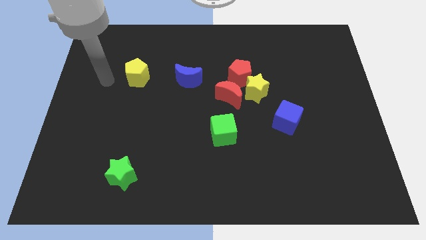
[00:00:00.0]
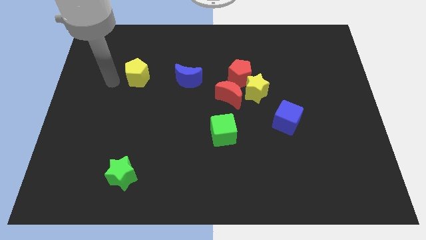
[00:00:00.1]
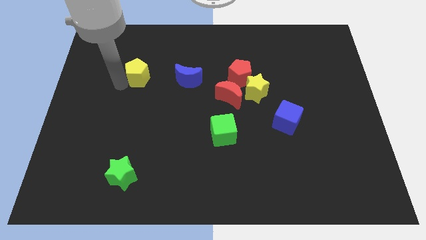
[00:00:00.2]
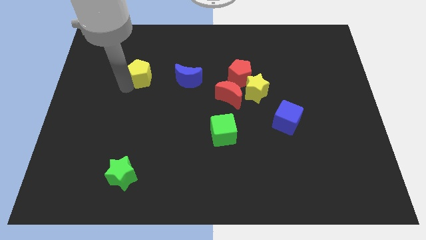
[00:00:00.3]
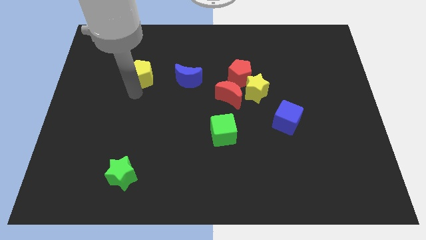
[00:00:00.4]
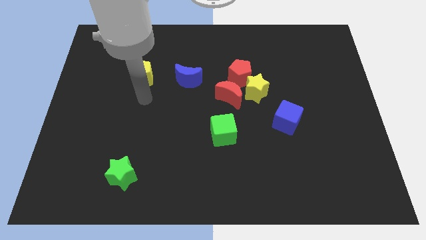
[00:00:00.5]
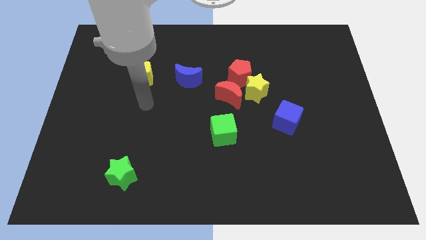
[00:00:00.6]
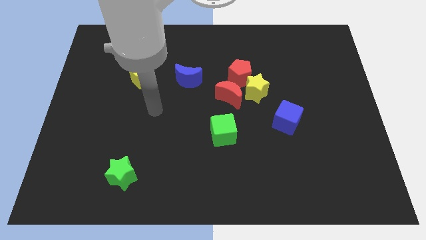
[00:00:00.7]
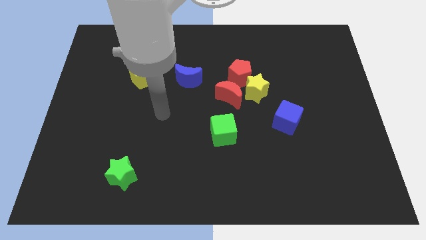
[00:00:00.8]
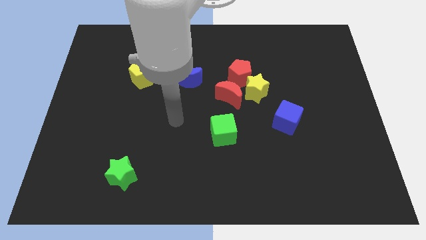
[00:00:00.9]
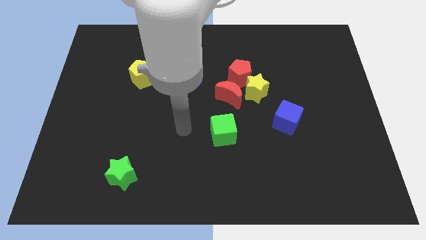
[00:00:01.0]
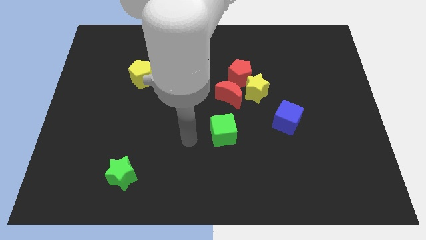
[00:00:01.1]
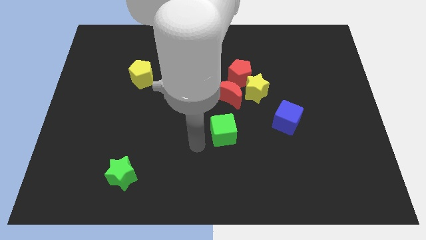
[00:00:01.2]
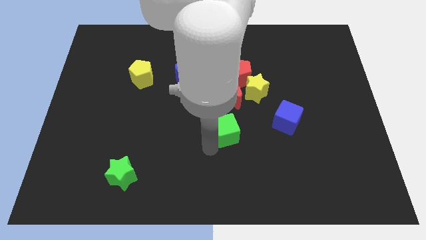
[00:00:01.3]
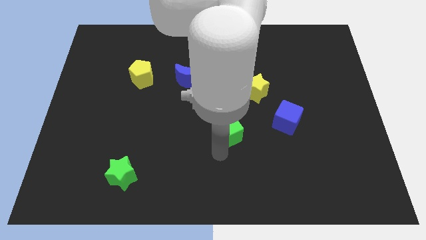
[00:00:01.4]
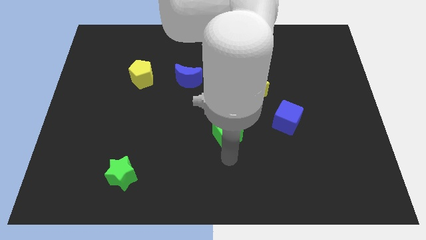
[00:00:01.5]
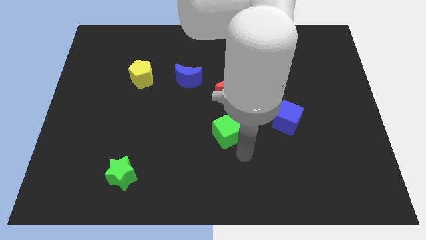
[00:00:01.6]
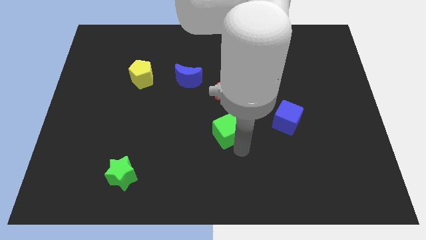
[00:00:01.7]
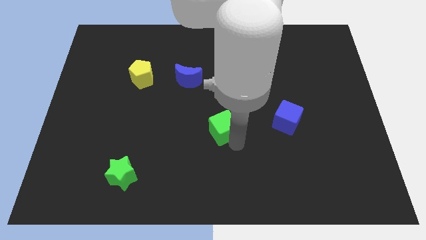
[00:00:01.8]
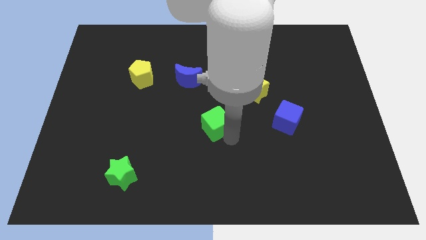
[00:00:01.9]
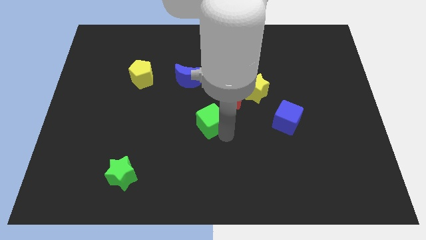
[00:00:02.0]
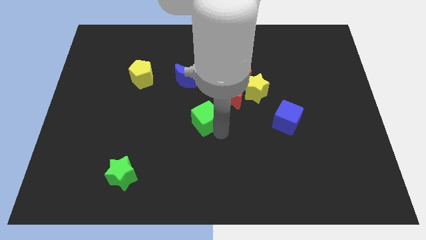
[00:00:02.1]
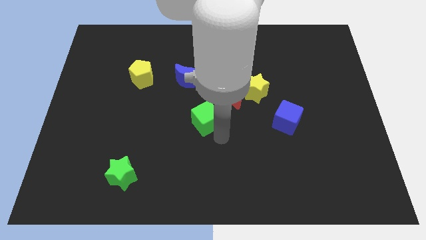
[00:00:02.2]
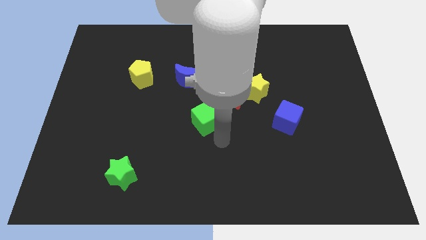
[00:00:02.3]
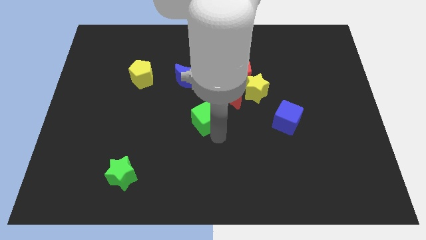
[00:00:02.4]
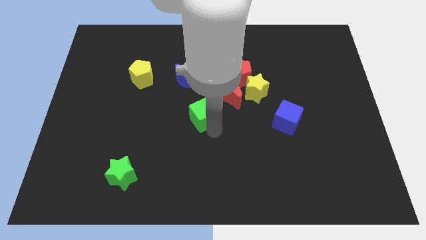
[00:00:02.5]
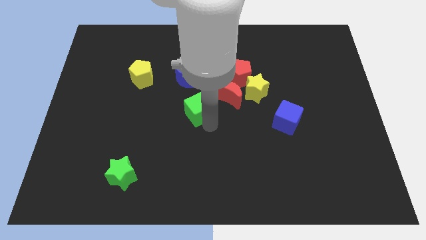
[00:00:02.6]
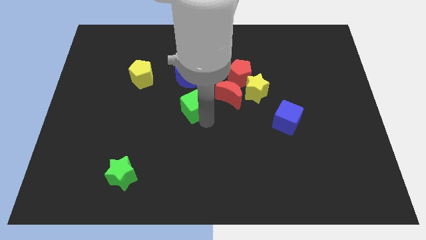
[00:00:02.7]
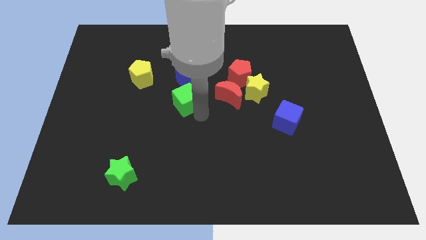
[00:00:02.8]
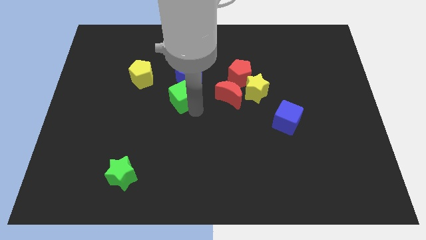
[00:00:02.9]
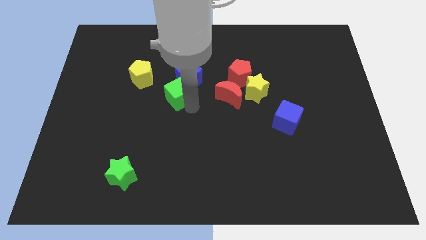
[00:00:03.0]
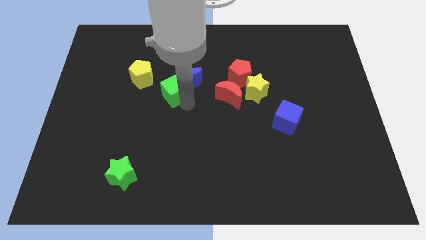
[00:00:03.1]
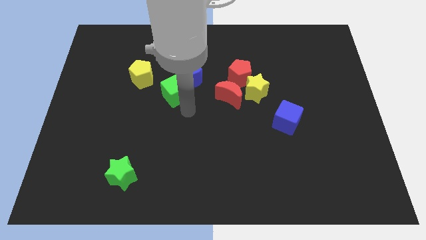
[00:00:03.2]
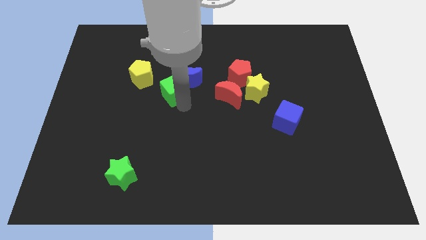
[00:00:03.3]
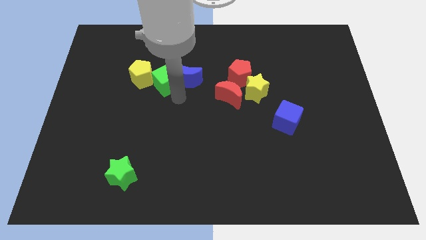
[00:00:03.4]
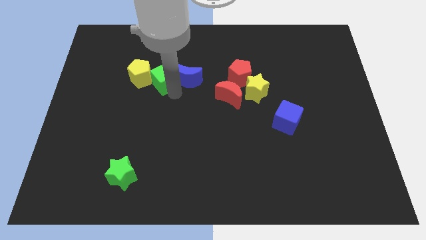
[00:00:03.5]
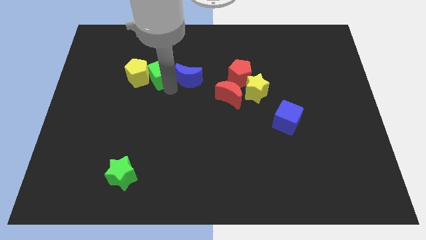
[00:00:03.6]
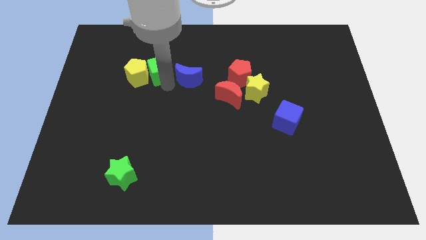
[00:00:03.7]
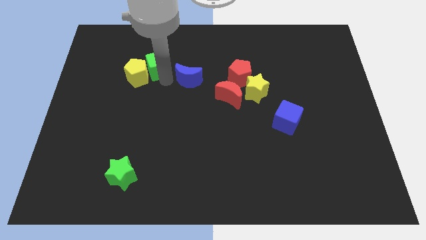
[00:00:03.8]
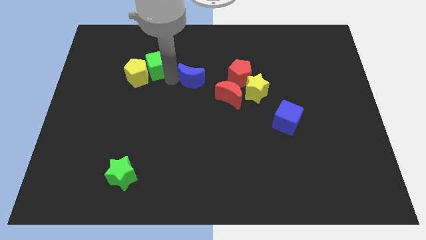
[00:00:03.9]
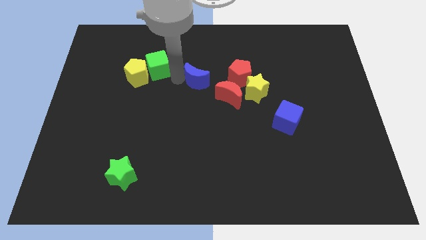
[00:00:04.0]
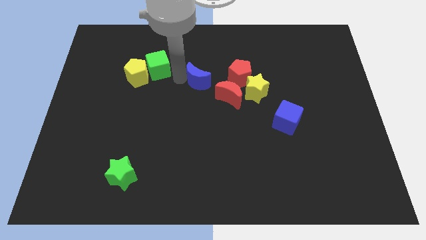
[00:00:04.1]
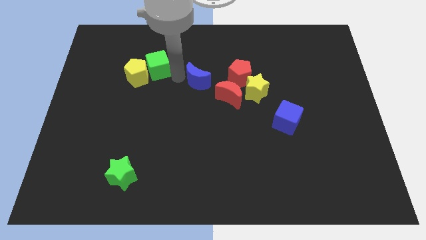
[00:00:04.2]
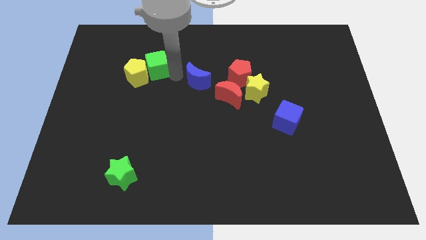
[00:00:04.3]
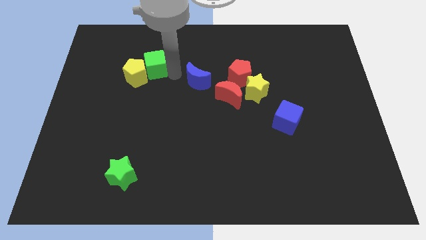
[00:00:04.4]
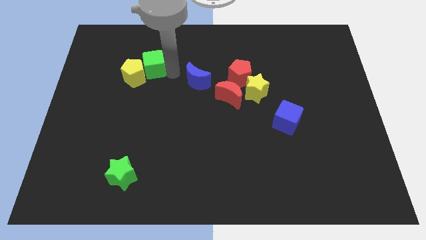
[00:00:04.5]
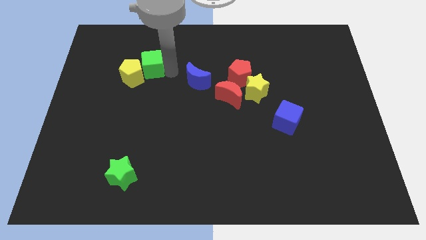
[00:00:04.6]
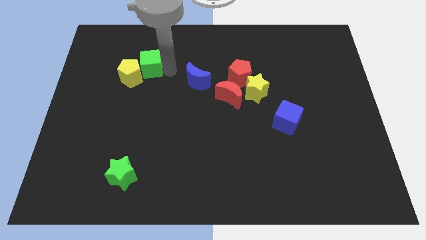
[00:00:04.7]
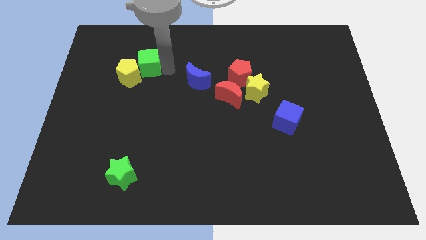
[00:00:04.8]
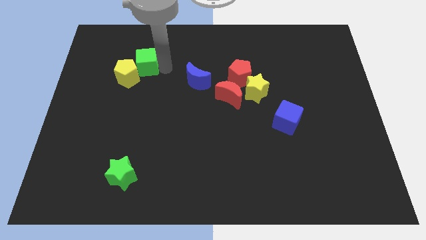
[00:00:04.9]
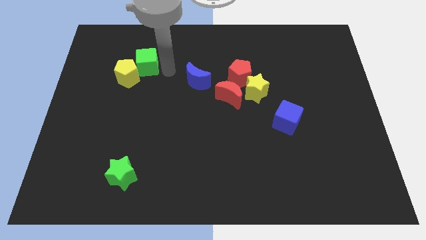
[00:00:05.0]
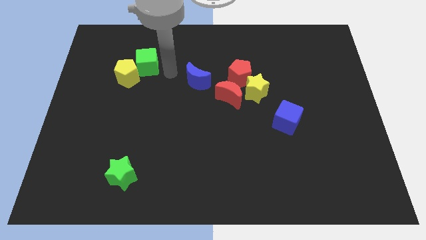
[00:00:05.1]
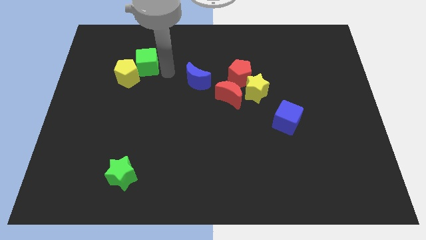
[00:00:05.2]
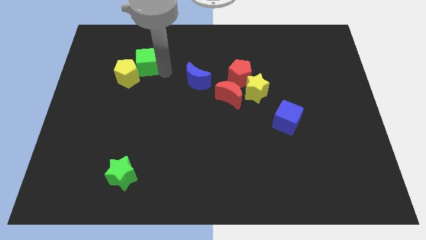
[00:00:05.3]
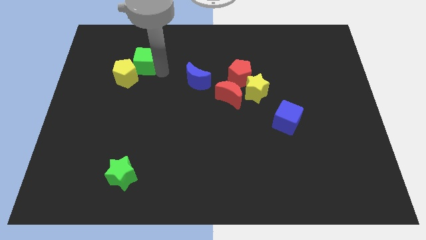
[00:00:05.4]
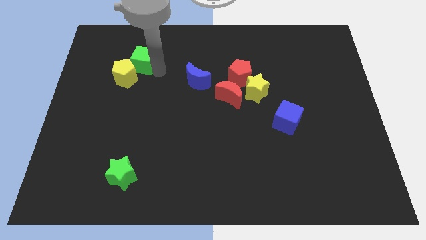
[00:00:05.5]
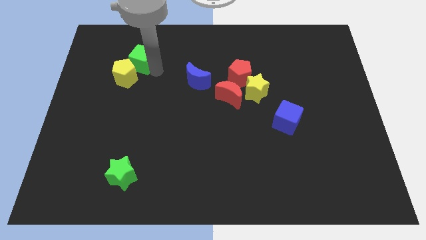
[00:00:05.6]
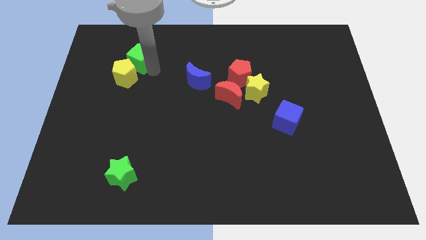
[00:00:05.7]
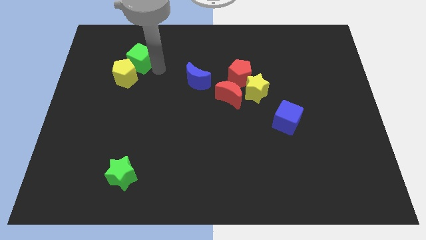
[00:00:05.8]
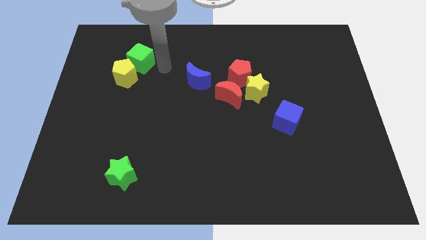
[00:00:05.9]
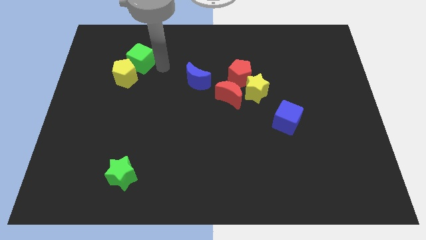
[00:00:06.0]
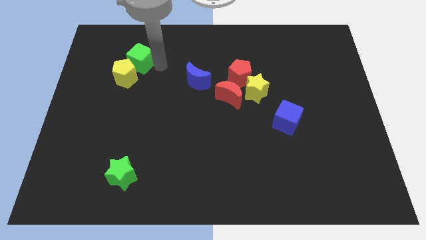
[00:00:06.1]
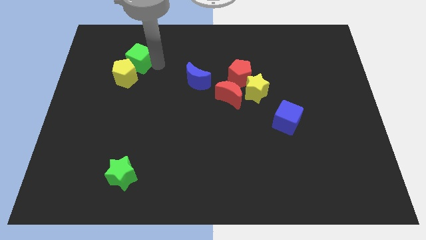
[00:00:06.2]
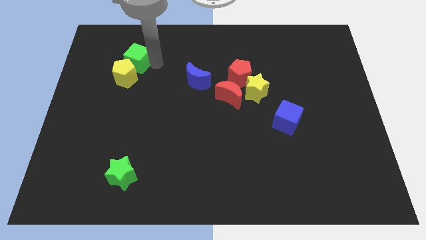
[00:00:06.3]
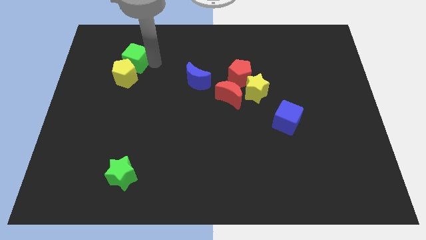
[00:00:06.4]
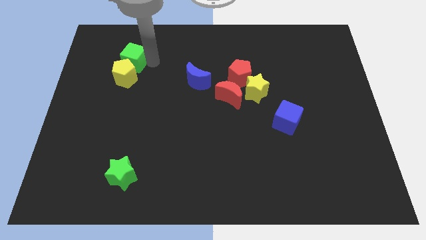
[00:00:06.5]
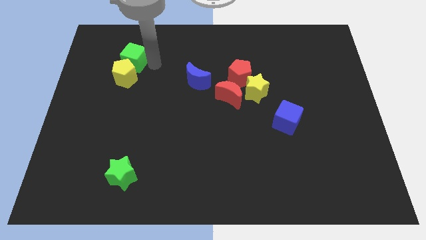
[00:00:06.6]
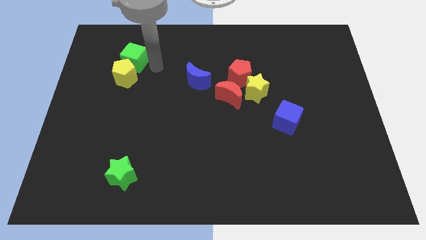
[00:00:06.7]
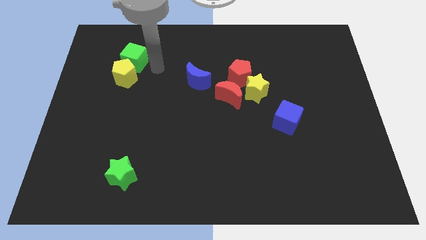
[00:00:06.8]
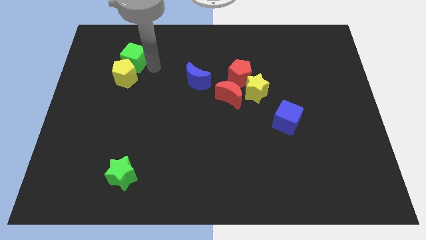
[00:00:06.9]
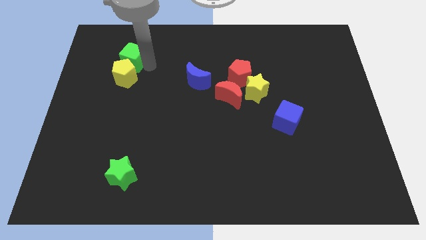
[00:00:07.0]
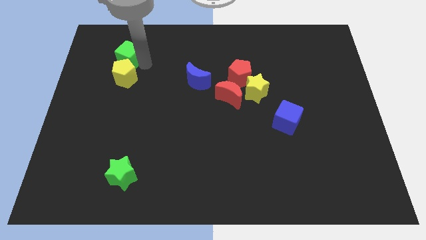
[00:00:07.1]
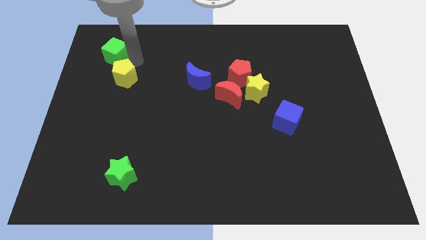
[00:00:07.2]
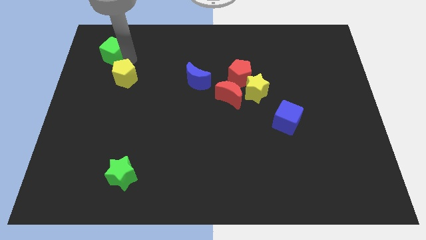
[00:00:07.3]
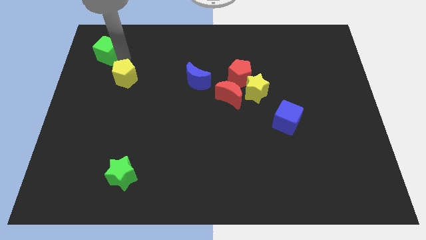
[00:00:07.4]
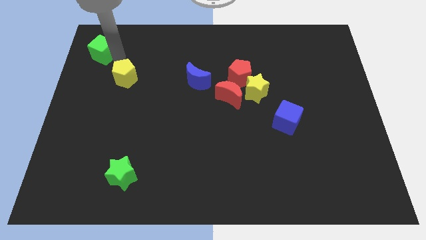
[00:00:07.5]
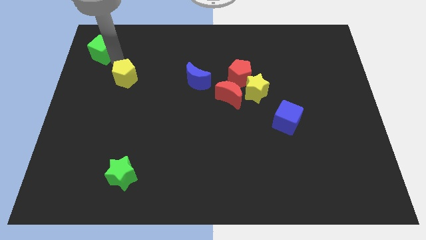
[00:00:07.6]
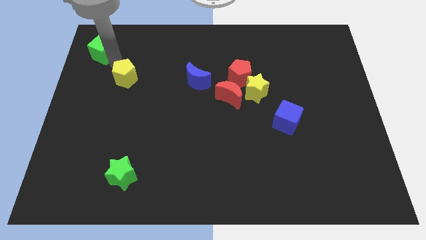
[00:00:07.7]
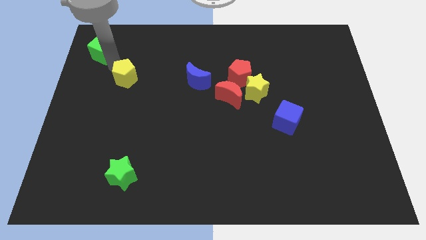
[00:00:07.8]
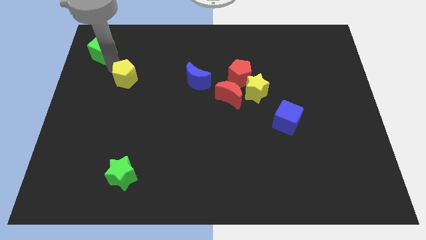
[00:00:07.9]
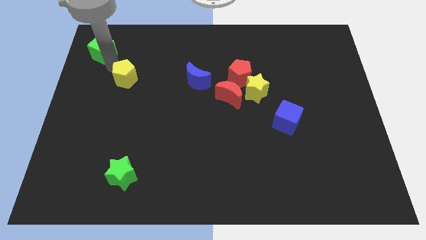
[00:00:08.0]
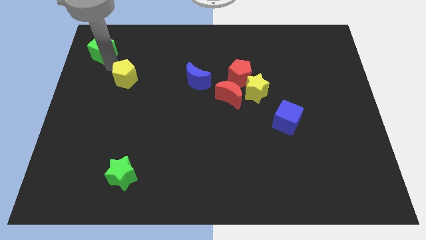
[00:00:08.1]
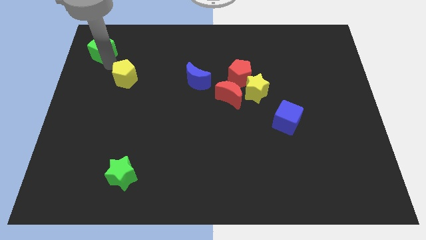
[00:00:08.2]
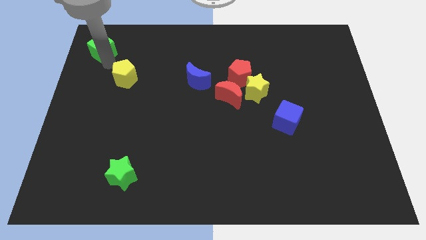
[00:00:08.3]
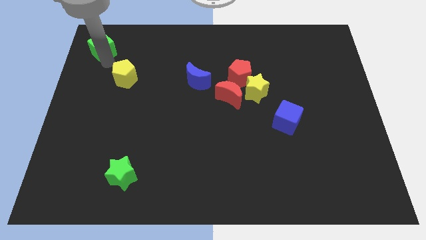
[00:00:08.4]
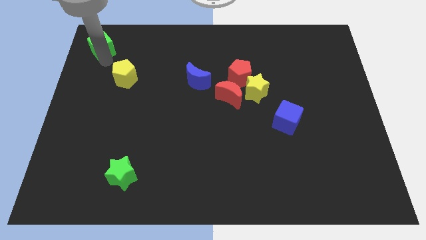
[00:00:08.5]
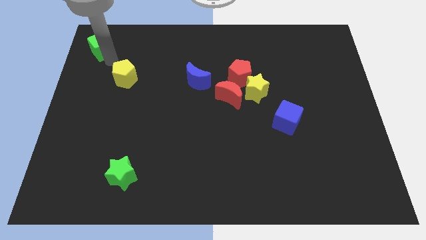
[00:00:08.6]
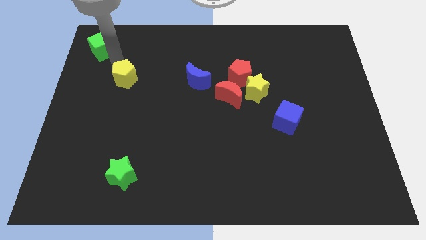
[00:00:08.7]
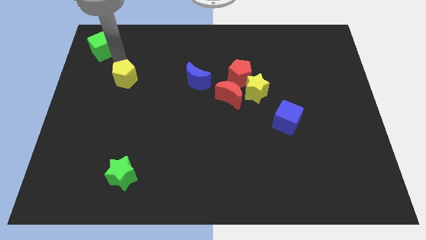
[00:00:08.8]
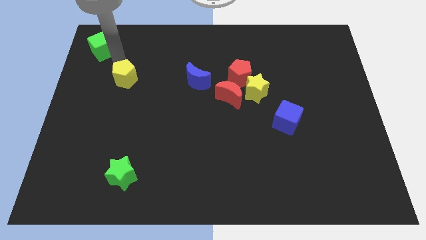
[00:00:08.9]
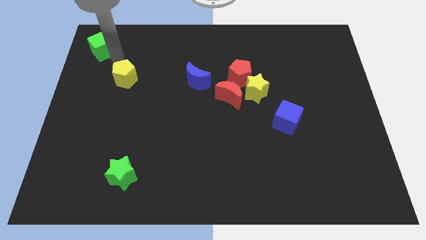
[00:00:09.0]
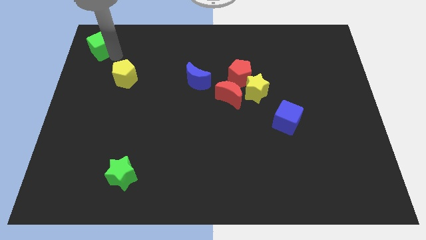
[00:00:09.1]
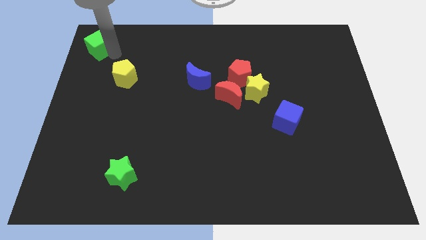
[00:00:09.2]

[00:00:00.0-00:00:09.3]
move the green cube to the top left of the board
